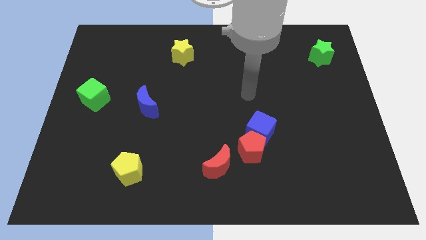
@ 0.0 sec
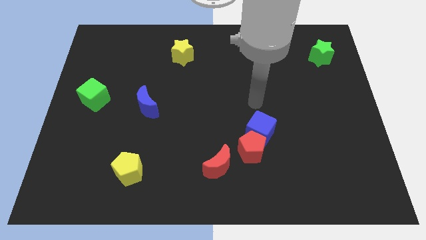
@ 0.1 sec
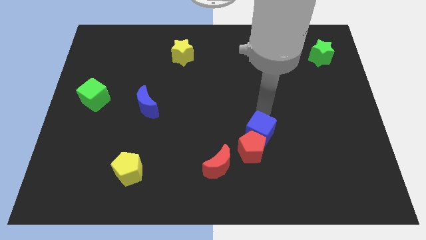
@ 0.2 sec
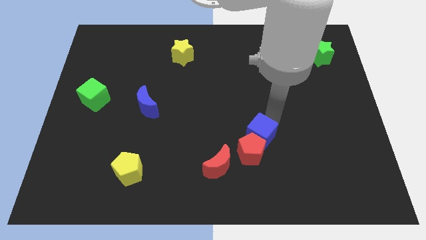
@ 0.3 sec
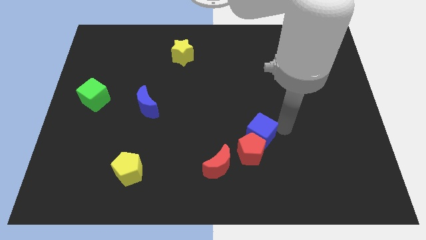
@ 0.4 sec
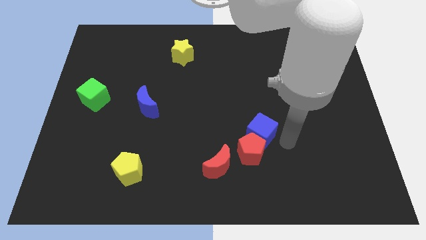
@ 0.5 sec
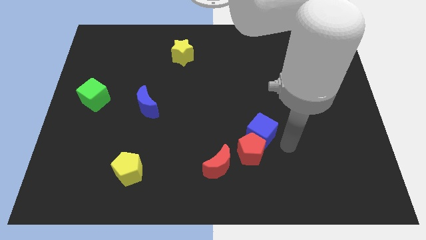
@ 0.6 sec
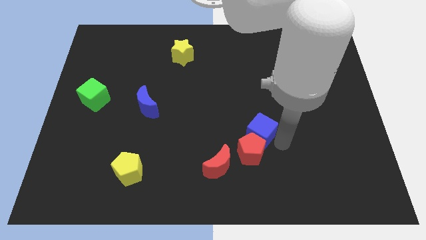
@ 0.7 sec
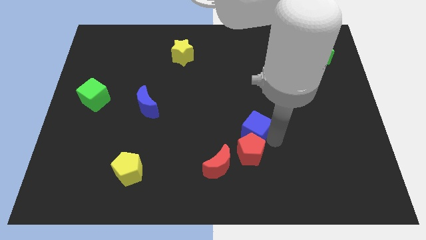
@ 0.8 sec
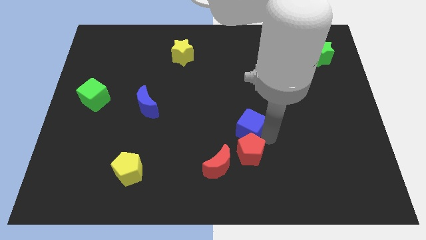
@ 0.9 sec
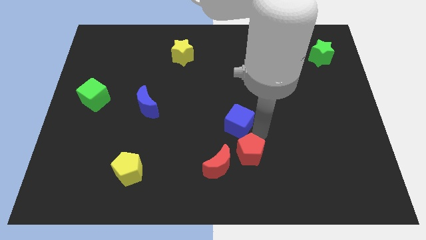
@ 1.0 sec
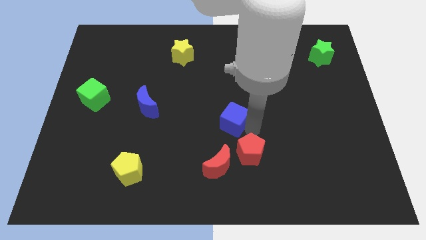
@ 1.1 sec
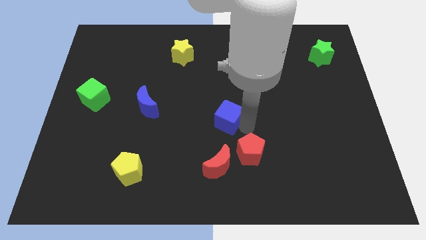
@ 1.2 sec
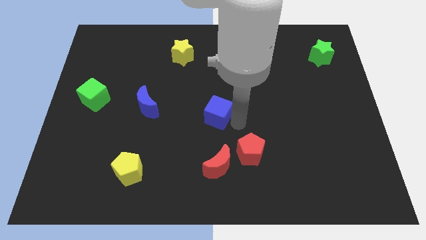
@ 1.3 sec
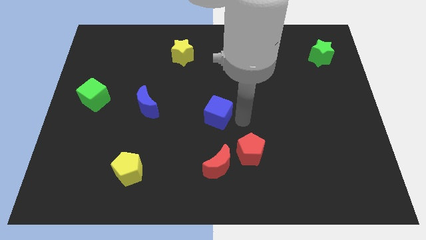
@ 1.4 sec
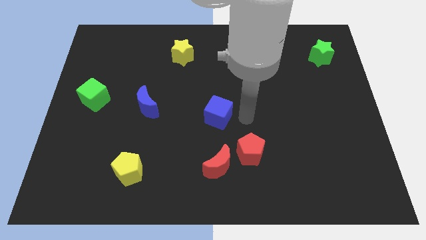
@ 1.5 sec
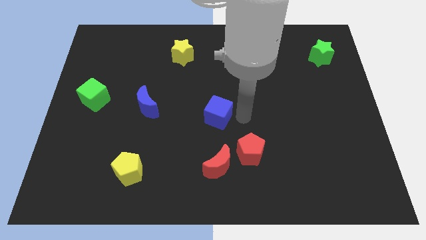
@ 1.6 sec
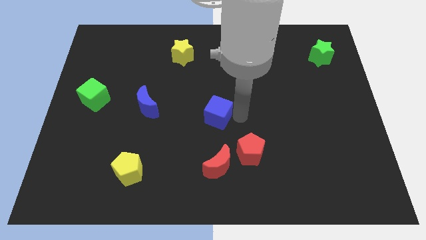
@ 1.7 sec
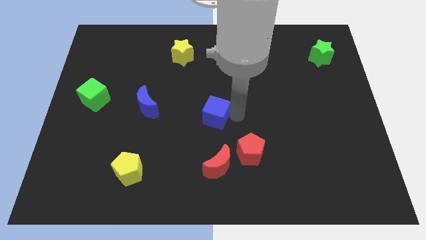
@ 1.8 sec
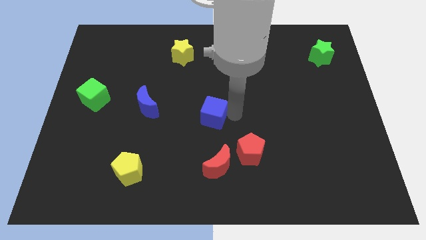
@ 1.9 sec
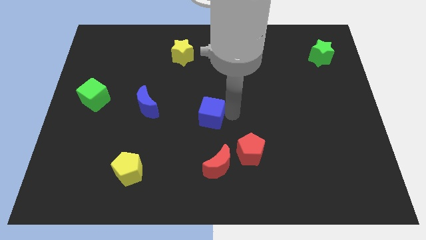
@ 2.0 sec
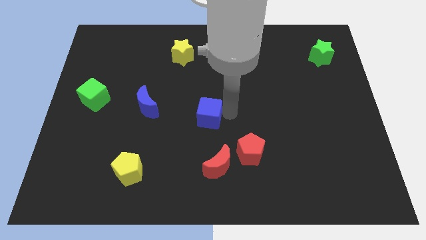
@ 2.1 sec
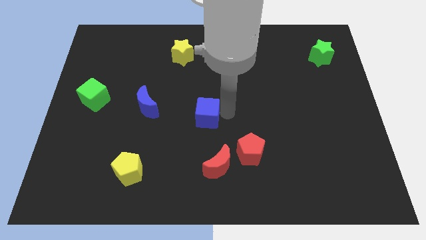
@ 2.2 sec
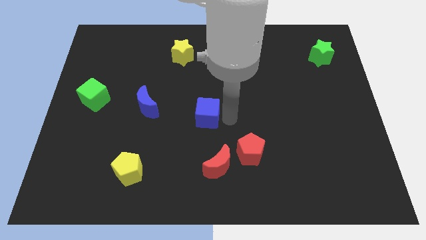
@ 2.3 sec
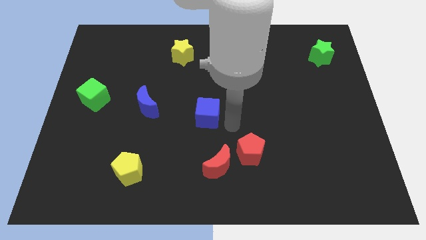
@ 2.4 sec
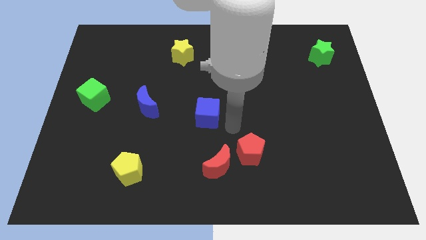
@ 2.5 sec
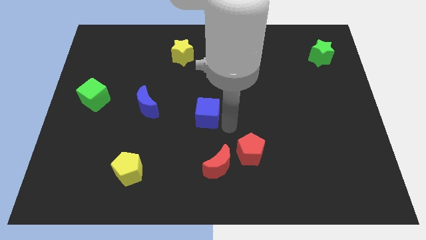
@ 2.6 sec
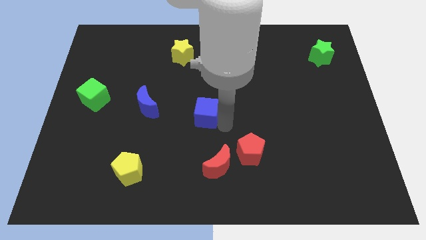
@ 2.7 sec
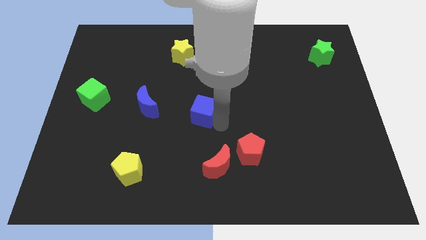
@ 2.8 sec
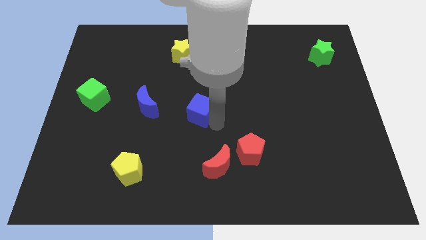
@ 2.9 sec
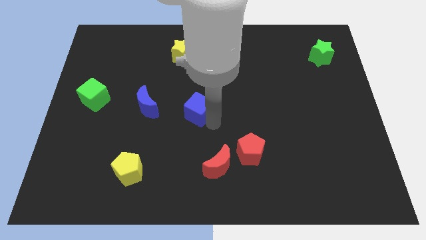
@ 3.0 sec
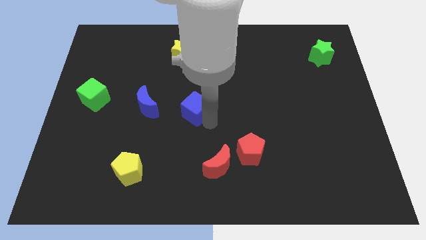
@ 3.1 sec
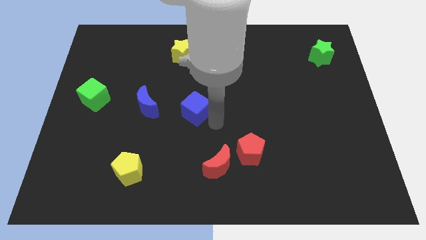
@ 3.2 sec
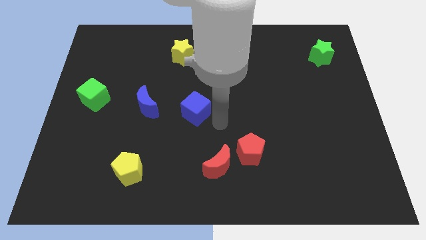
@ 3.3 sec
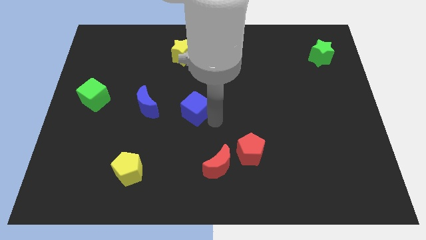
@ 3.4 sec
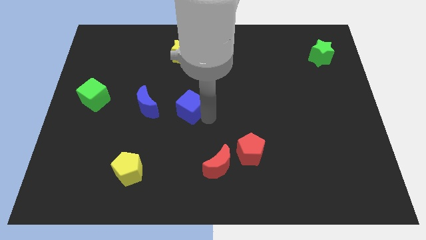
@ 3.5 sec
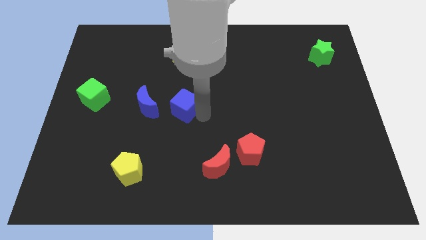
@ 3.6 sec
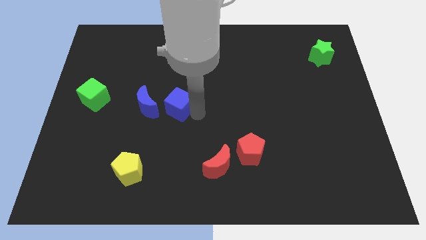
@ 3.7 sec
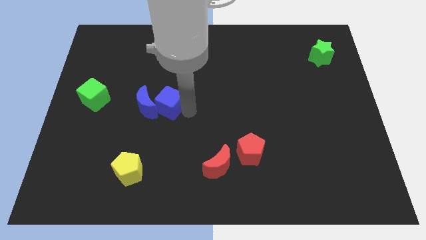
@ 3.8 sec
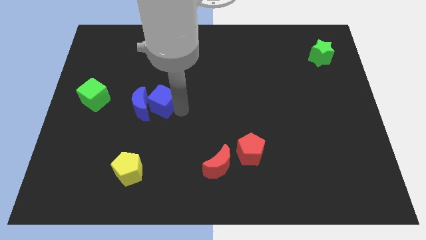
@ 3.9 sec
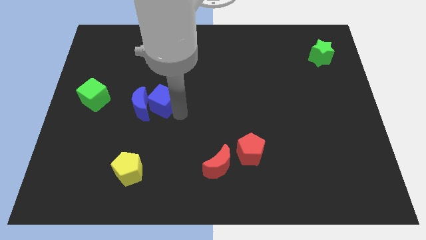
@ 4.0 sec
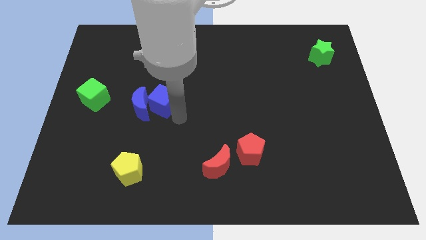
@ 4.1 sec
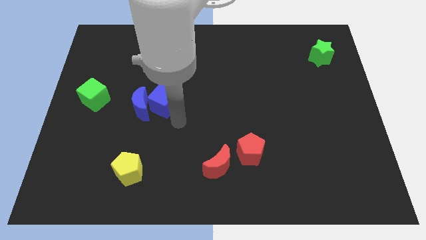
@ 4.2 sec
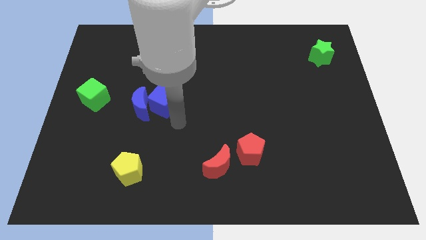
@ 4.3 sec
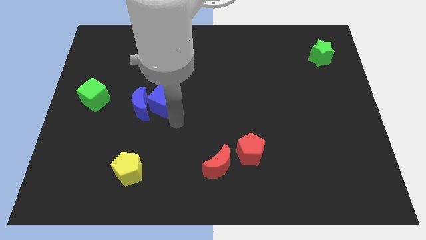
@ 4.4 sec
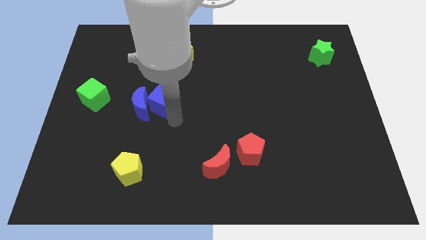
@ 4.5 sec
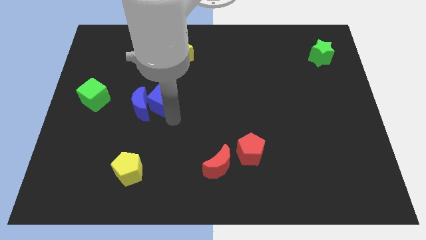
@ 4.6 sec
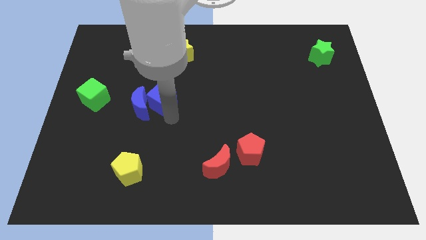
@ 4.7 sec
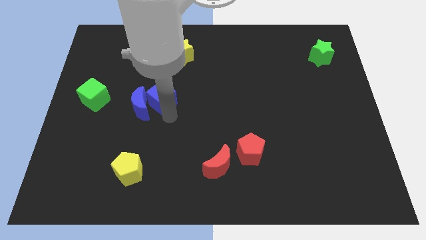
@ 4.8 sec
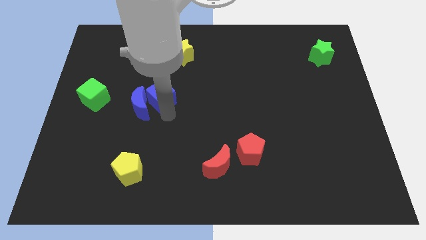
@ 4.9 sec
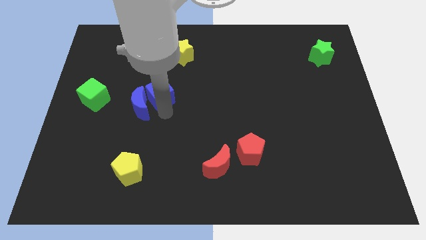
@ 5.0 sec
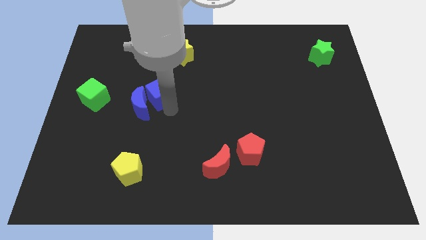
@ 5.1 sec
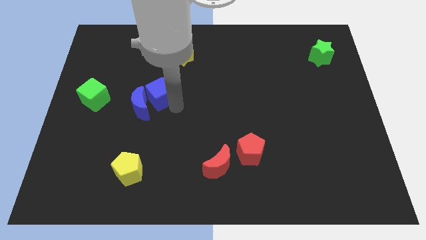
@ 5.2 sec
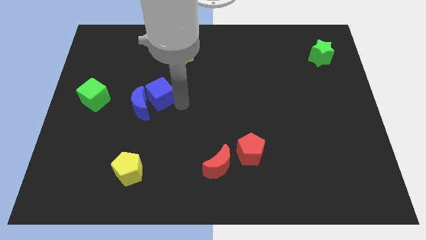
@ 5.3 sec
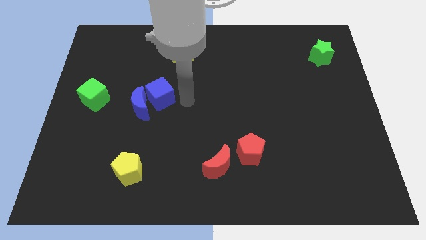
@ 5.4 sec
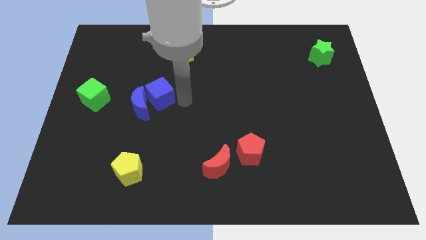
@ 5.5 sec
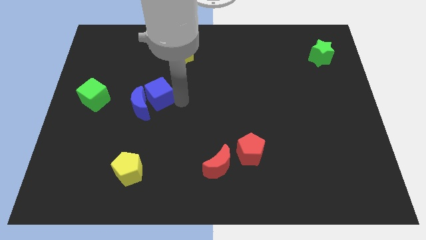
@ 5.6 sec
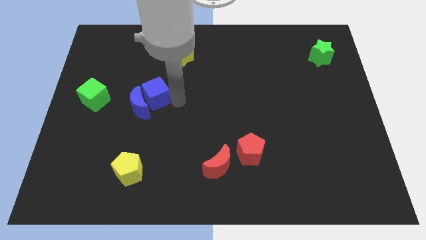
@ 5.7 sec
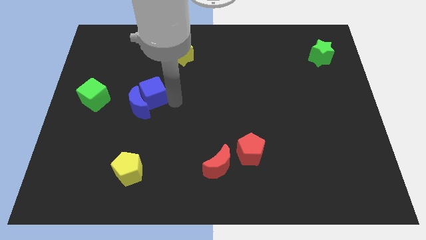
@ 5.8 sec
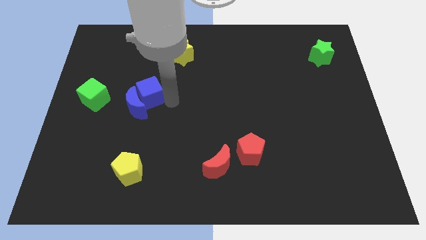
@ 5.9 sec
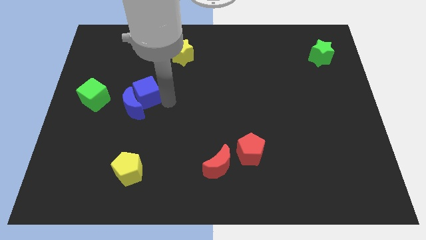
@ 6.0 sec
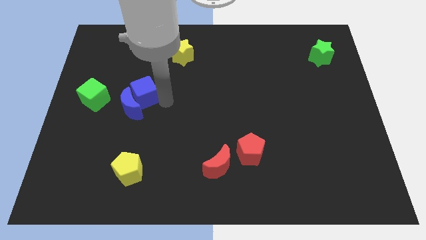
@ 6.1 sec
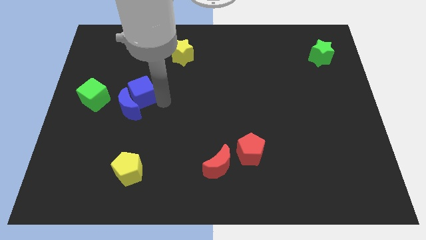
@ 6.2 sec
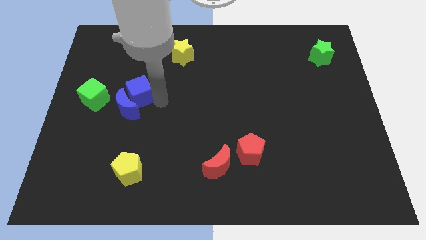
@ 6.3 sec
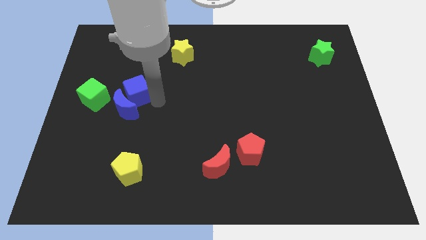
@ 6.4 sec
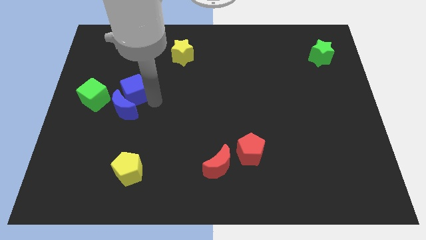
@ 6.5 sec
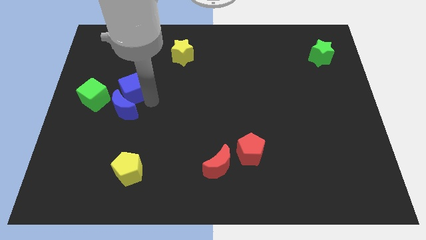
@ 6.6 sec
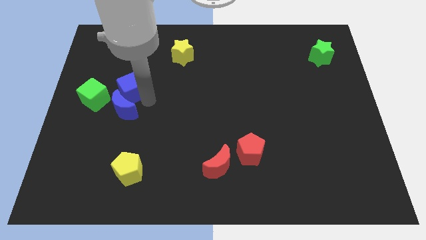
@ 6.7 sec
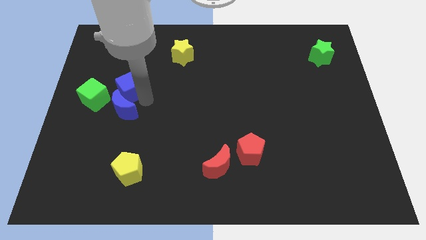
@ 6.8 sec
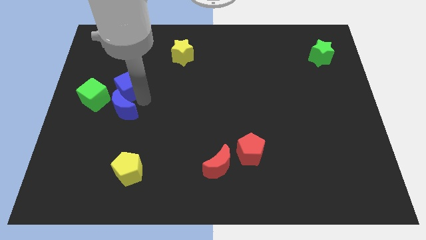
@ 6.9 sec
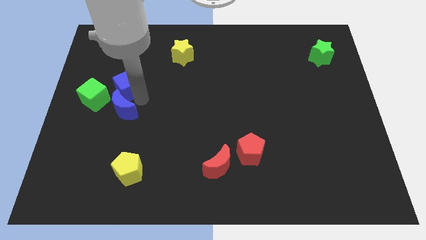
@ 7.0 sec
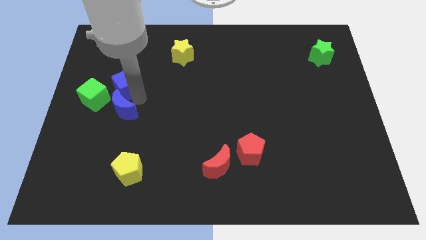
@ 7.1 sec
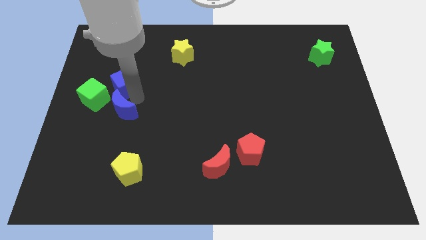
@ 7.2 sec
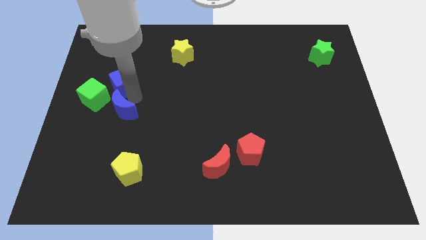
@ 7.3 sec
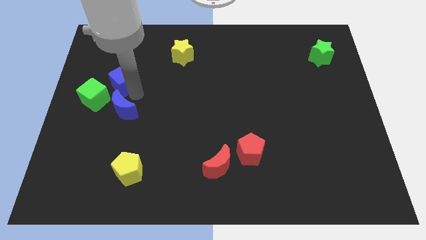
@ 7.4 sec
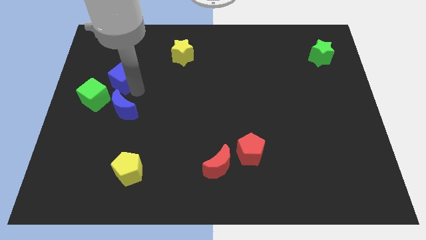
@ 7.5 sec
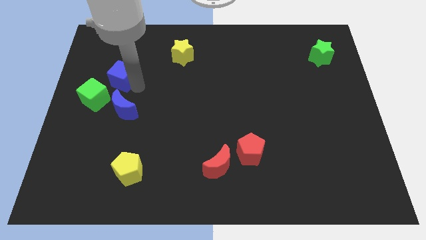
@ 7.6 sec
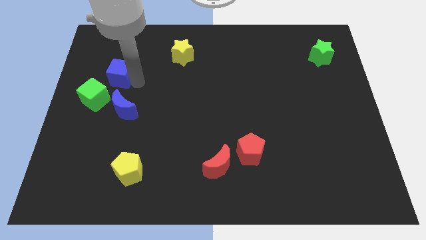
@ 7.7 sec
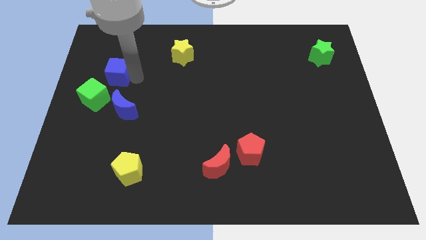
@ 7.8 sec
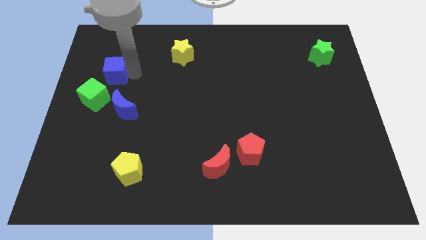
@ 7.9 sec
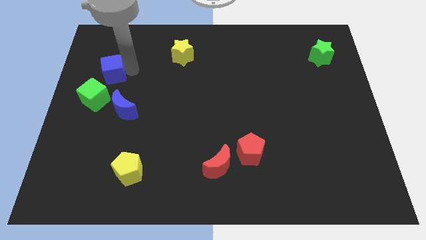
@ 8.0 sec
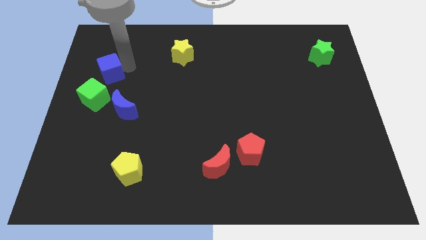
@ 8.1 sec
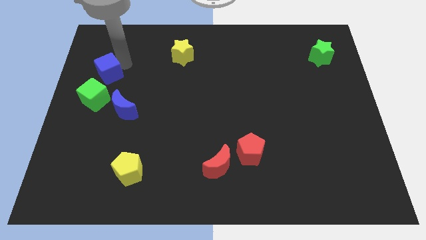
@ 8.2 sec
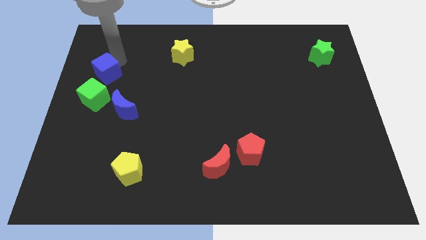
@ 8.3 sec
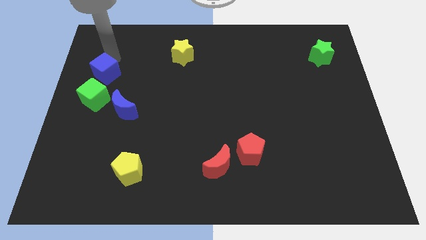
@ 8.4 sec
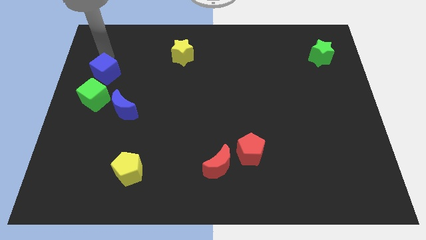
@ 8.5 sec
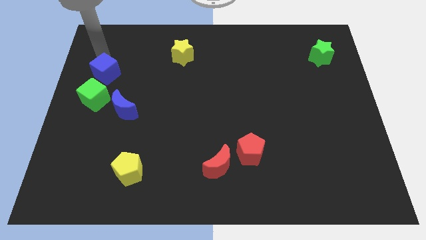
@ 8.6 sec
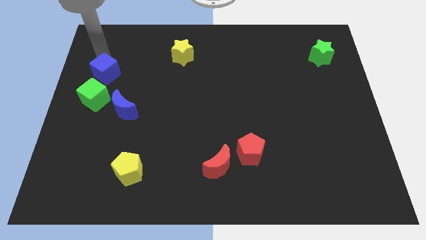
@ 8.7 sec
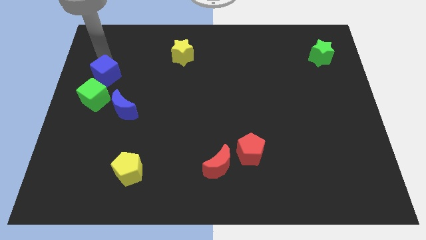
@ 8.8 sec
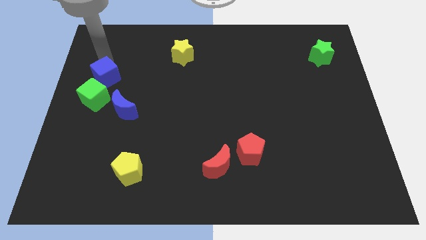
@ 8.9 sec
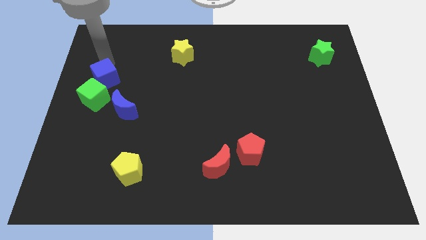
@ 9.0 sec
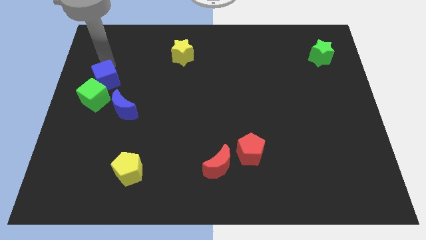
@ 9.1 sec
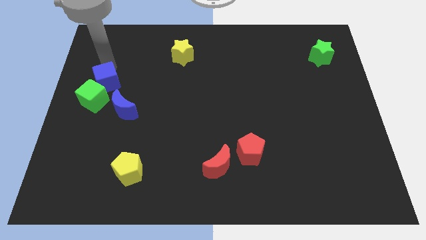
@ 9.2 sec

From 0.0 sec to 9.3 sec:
slide the blue cube close to the green cube
